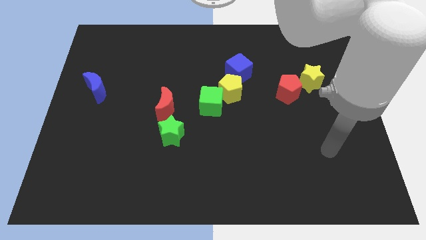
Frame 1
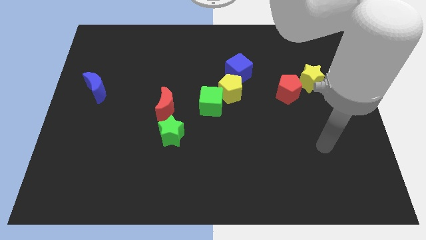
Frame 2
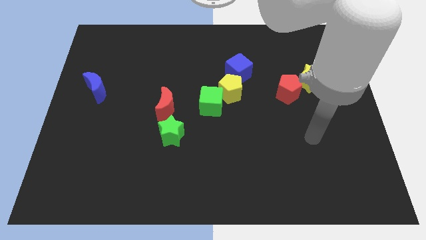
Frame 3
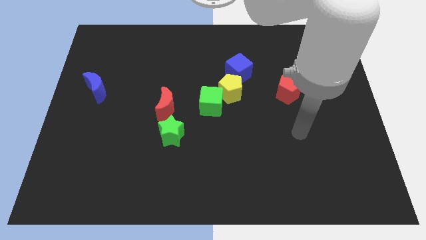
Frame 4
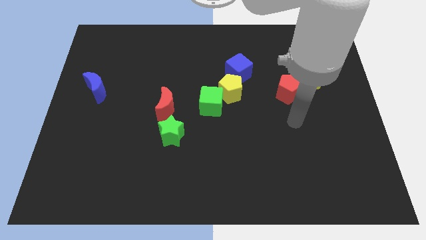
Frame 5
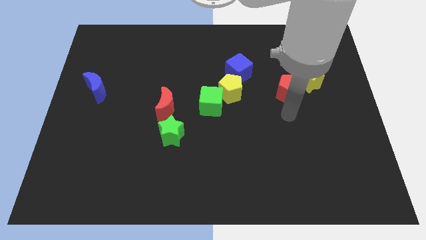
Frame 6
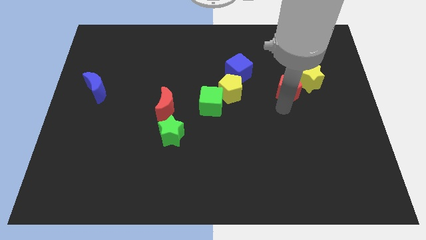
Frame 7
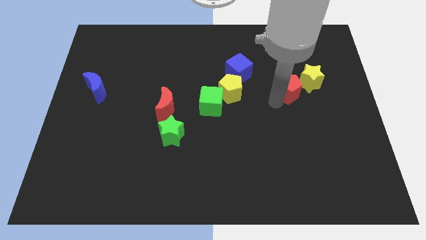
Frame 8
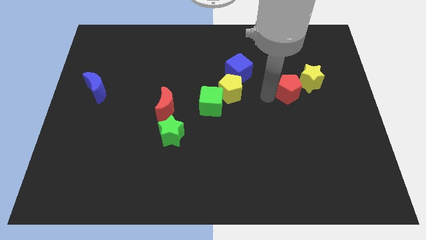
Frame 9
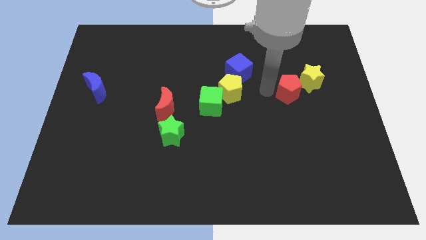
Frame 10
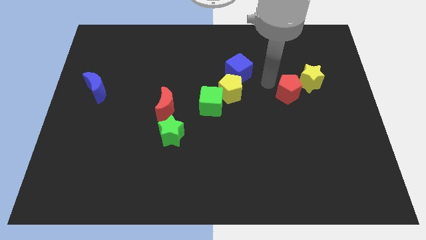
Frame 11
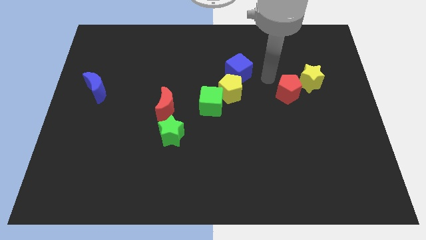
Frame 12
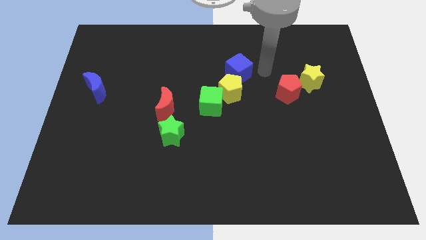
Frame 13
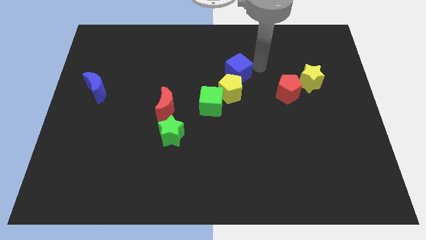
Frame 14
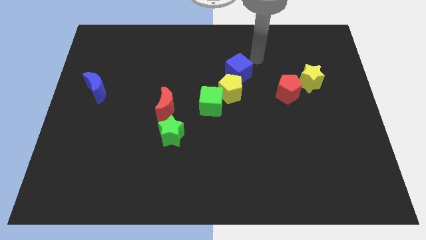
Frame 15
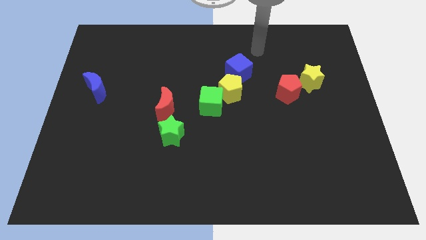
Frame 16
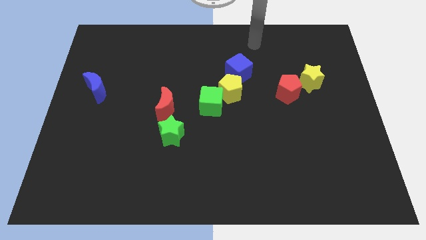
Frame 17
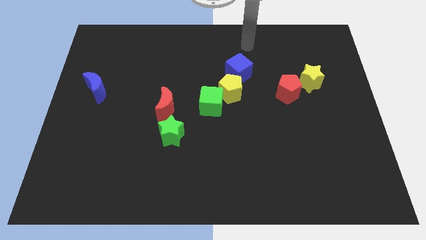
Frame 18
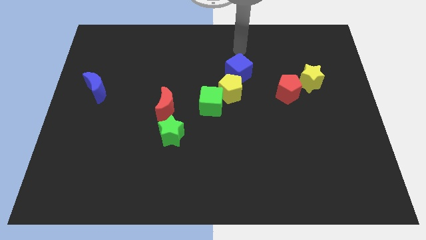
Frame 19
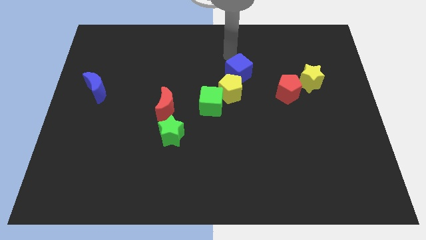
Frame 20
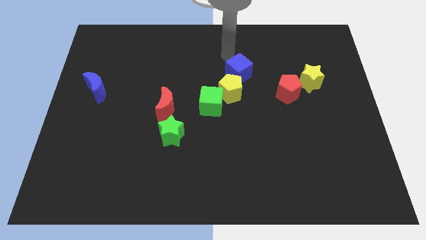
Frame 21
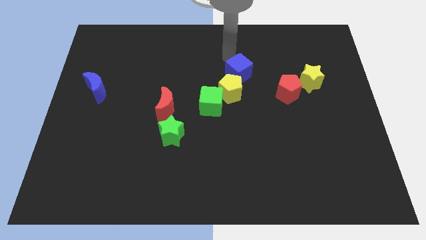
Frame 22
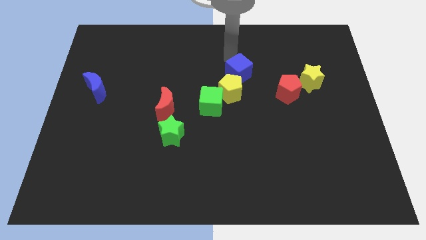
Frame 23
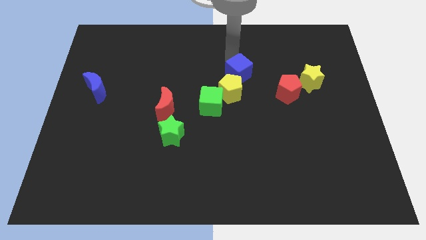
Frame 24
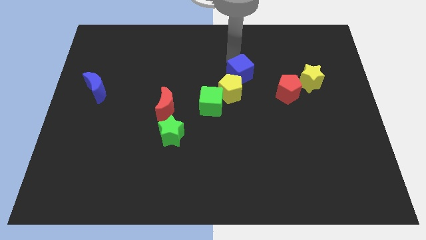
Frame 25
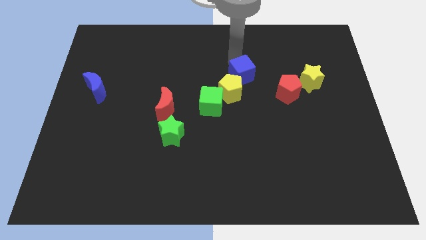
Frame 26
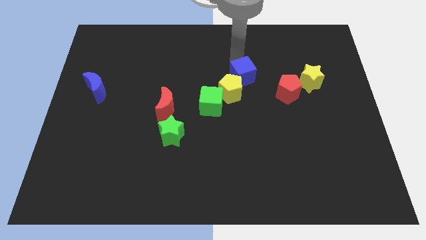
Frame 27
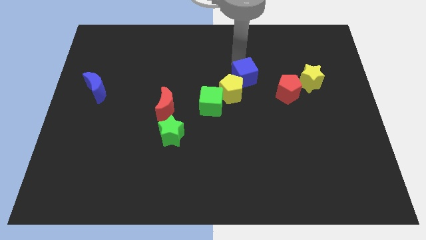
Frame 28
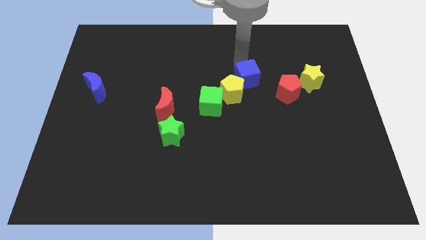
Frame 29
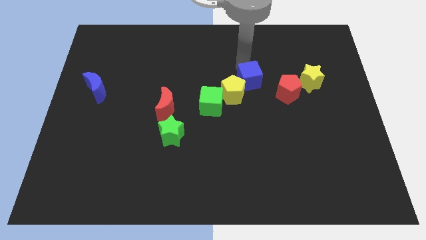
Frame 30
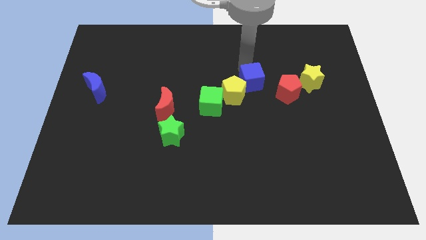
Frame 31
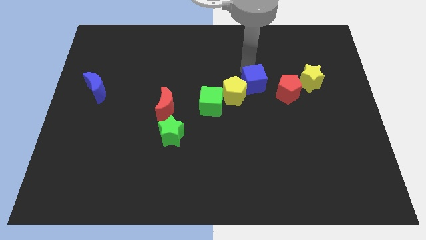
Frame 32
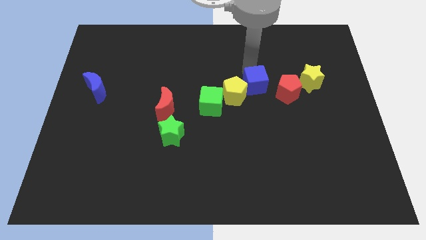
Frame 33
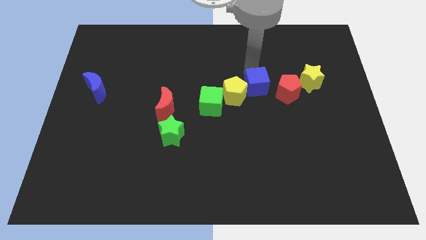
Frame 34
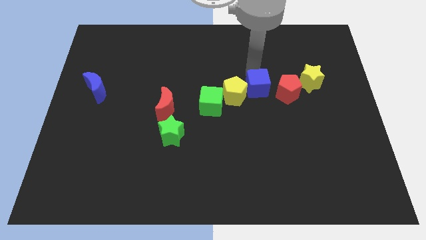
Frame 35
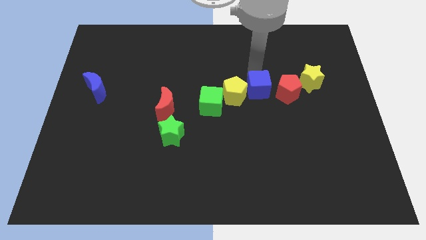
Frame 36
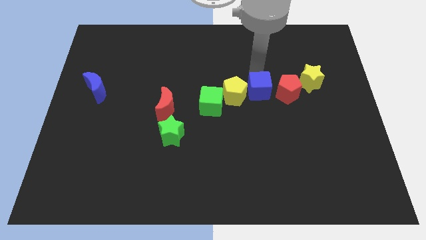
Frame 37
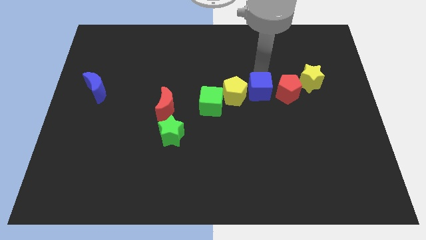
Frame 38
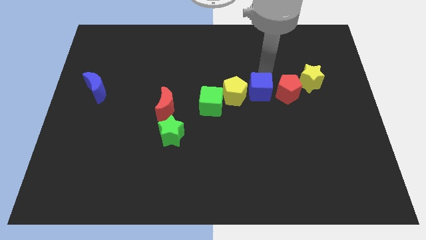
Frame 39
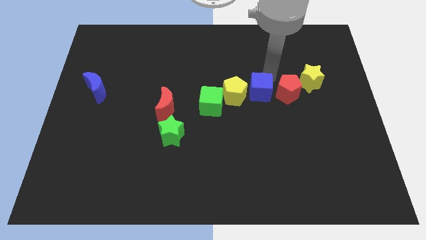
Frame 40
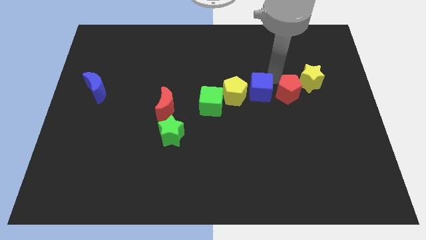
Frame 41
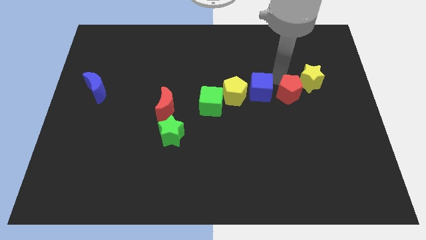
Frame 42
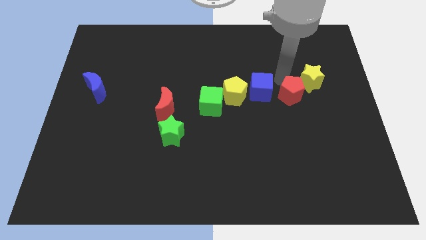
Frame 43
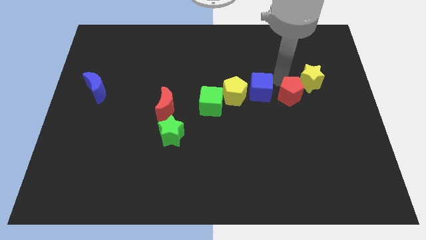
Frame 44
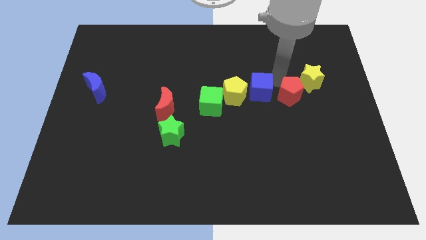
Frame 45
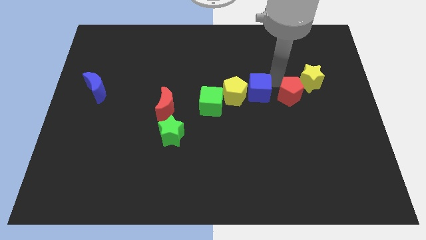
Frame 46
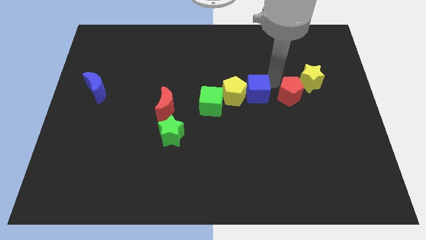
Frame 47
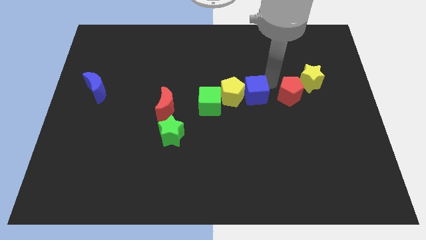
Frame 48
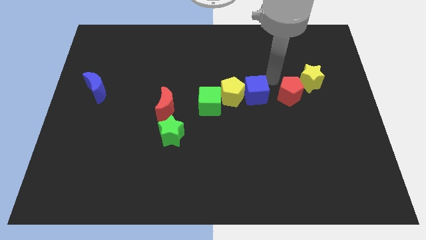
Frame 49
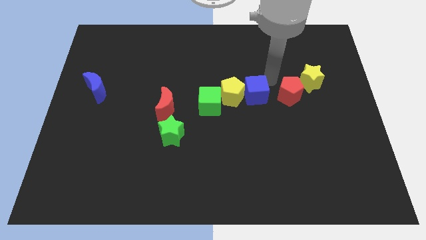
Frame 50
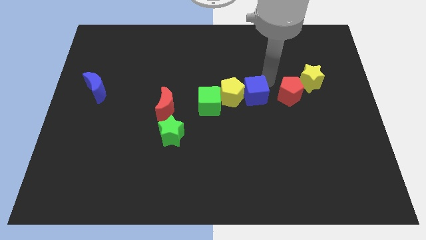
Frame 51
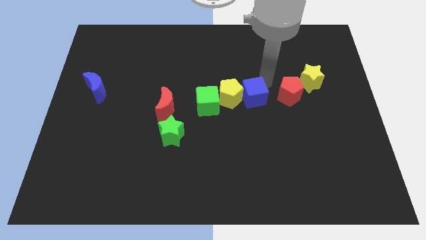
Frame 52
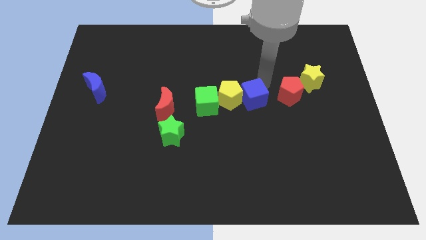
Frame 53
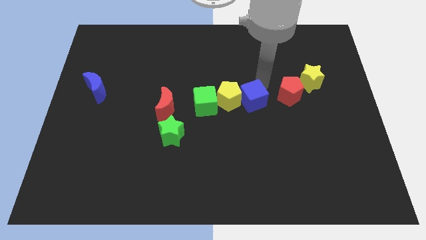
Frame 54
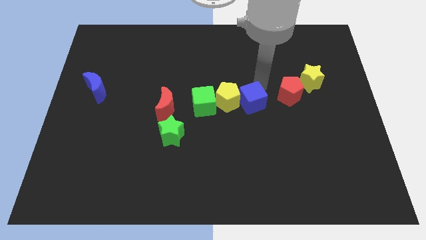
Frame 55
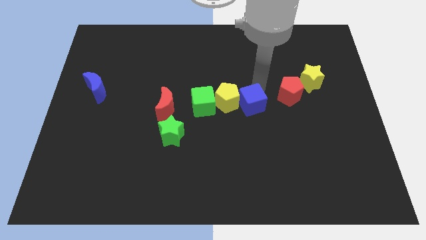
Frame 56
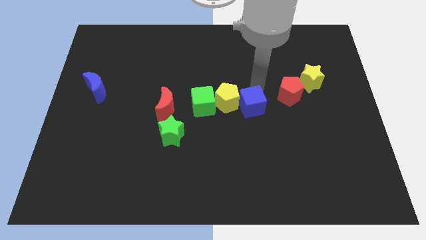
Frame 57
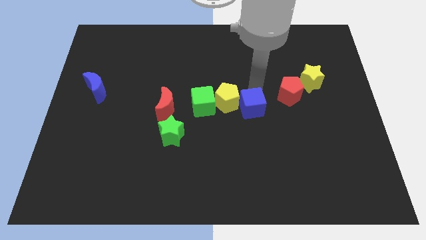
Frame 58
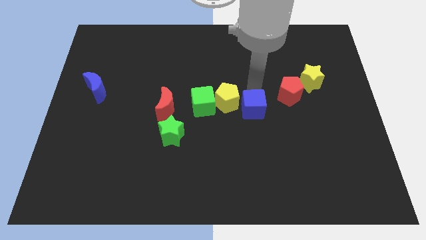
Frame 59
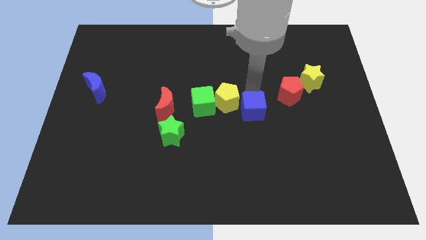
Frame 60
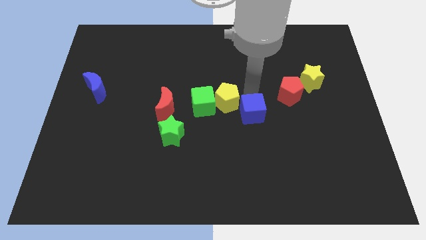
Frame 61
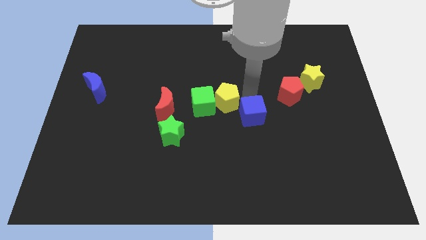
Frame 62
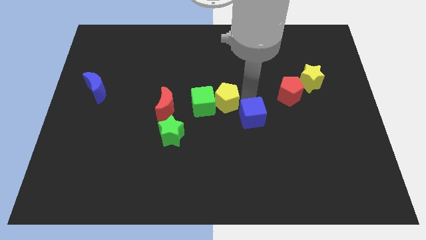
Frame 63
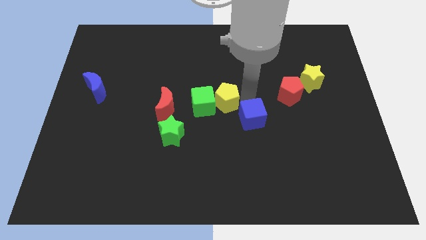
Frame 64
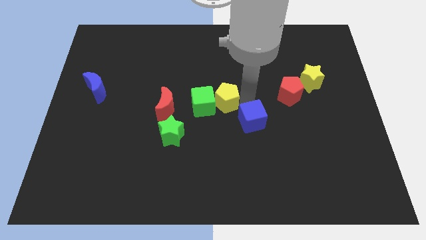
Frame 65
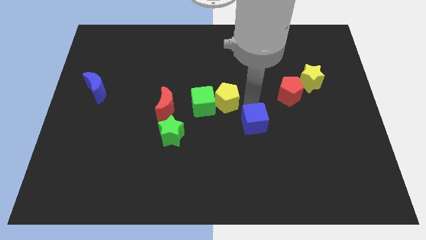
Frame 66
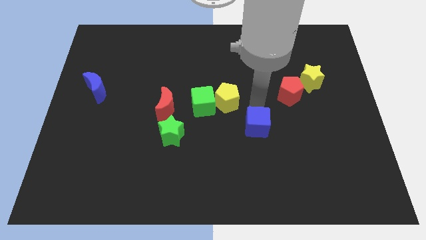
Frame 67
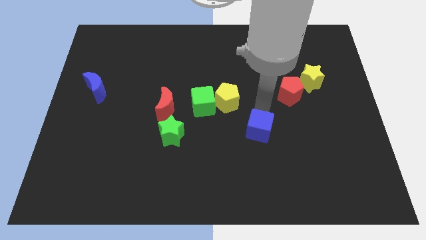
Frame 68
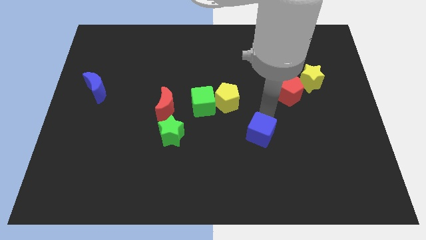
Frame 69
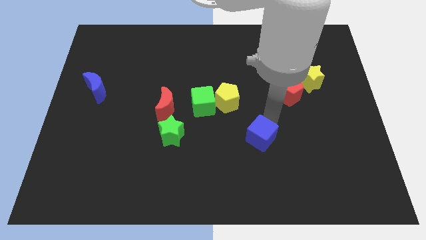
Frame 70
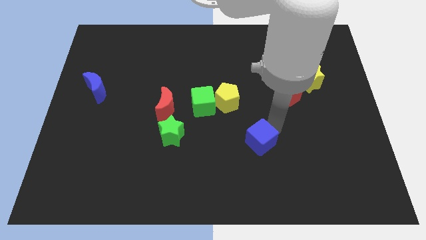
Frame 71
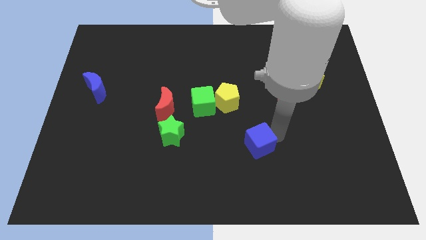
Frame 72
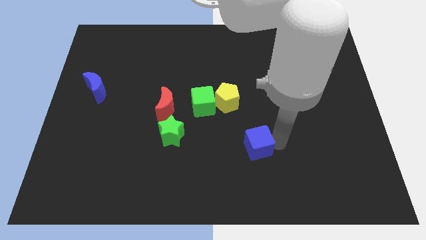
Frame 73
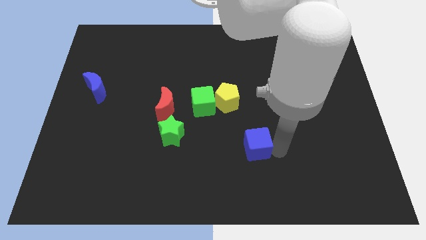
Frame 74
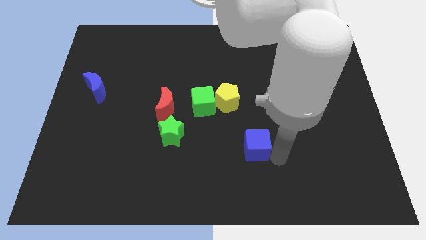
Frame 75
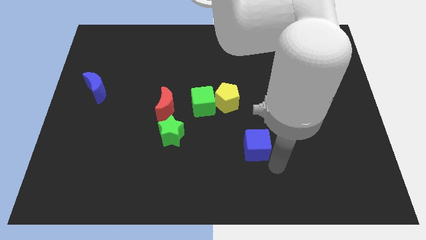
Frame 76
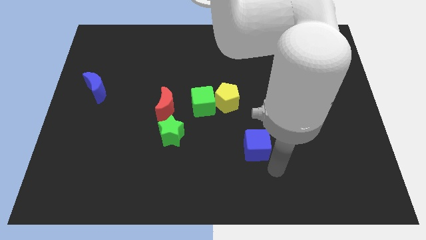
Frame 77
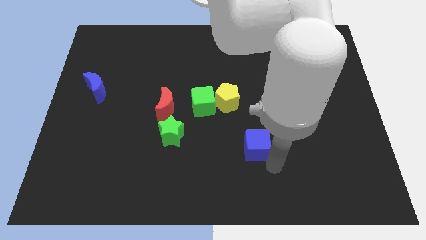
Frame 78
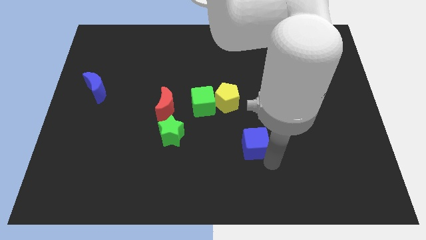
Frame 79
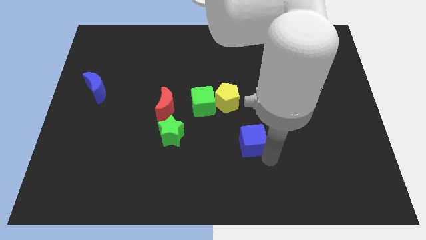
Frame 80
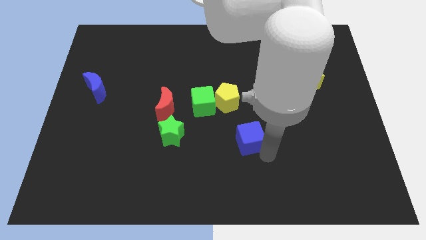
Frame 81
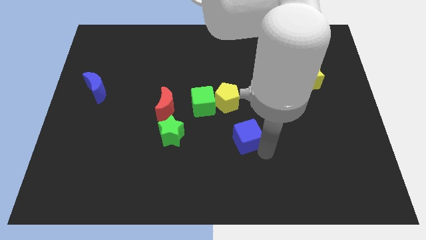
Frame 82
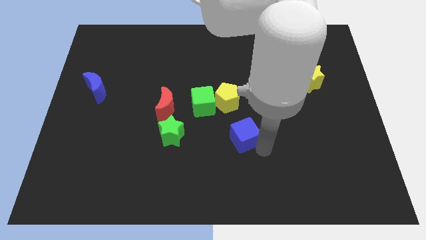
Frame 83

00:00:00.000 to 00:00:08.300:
move the blue cube just right of the green star
